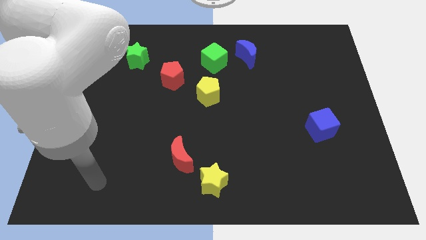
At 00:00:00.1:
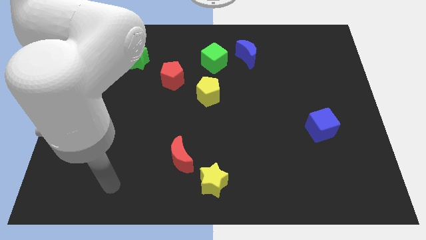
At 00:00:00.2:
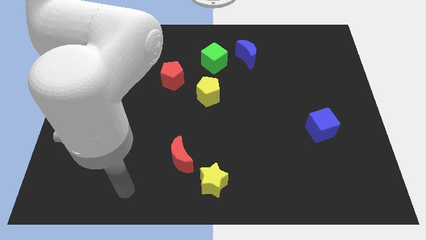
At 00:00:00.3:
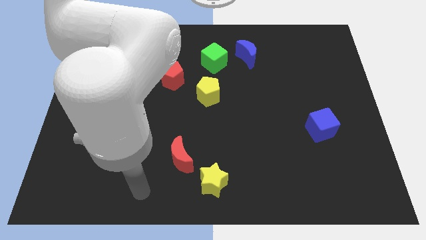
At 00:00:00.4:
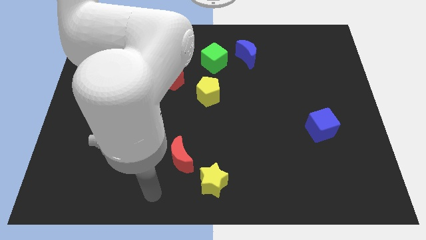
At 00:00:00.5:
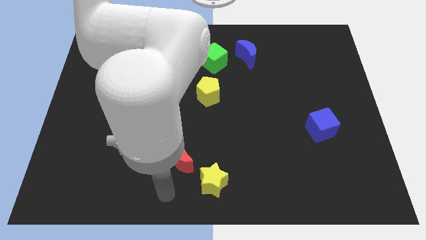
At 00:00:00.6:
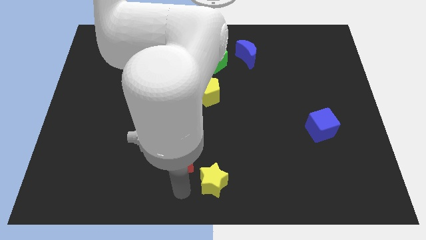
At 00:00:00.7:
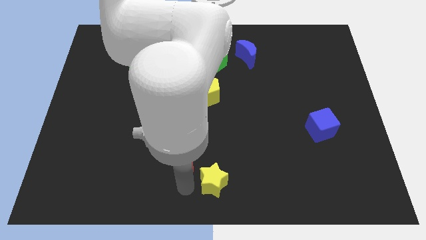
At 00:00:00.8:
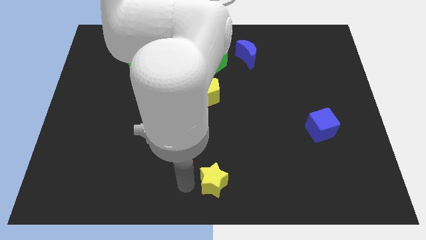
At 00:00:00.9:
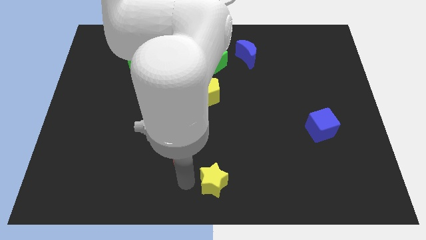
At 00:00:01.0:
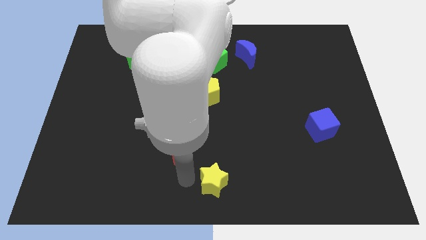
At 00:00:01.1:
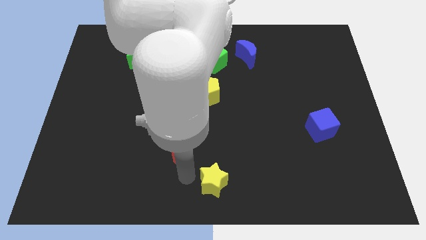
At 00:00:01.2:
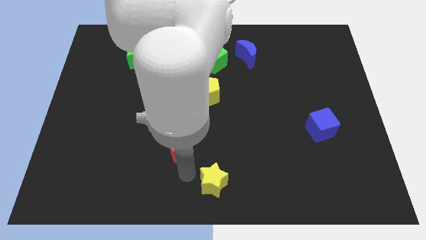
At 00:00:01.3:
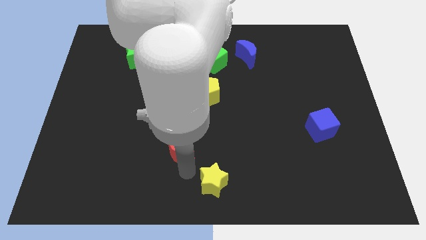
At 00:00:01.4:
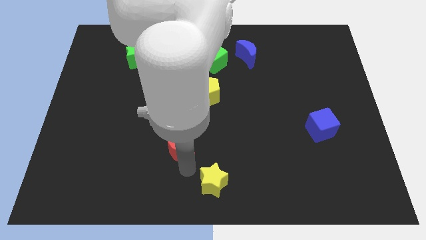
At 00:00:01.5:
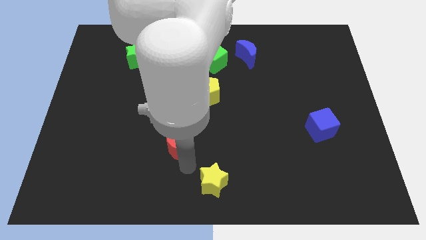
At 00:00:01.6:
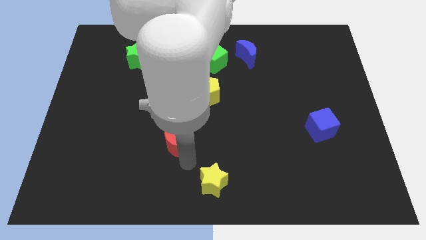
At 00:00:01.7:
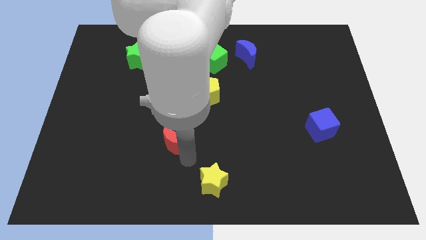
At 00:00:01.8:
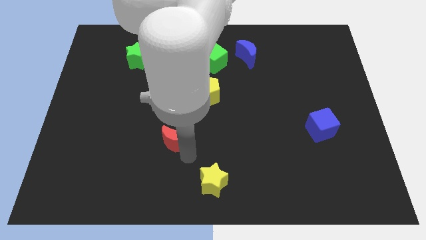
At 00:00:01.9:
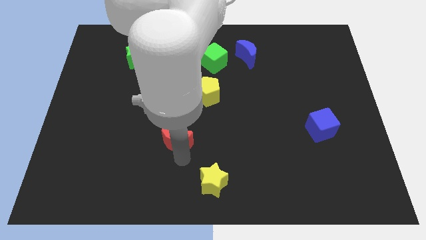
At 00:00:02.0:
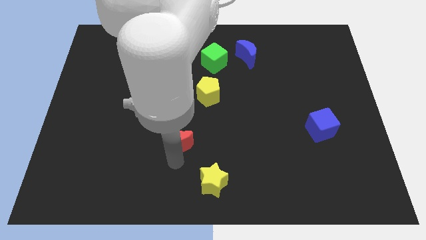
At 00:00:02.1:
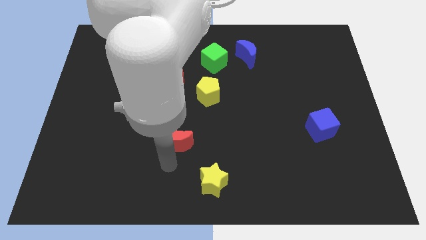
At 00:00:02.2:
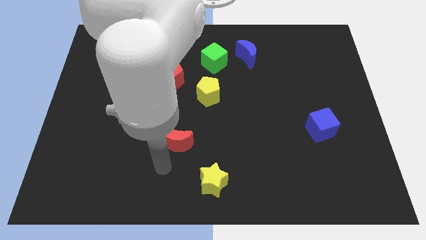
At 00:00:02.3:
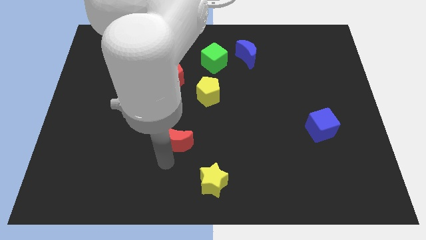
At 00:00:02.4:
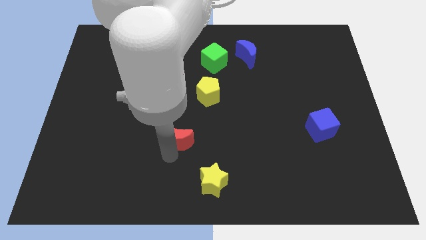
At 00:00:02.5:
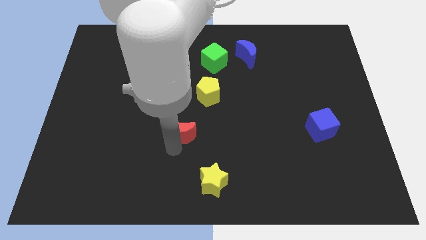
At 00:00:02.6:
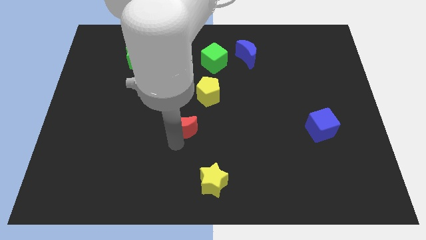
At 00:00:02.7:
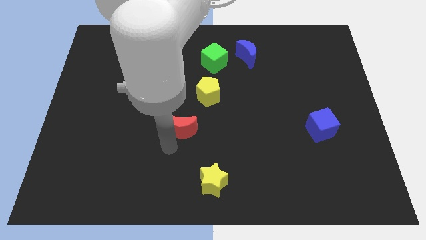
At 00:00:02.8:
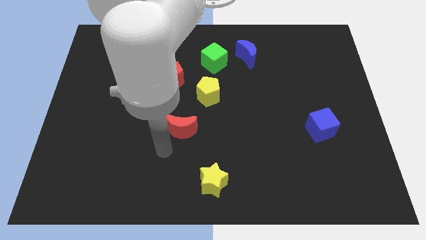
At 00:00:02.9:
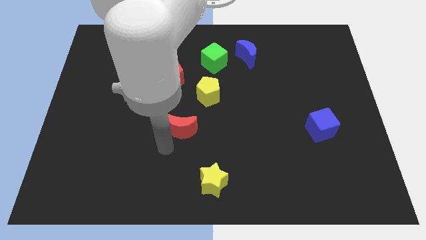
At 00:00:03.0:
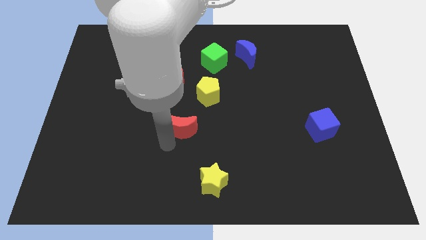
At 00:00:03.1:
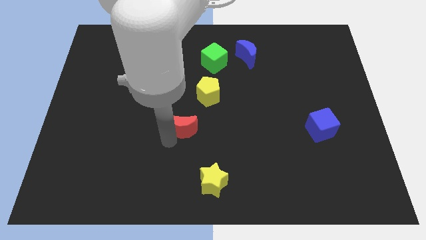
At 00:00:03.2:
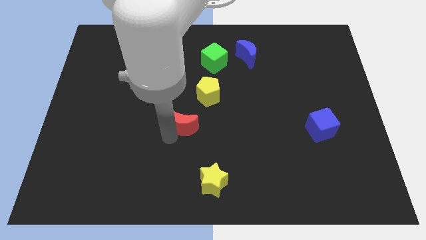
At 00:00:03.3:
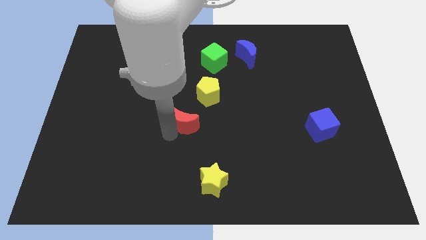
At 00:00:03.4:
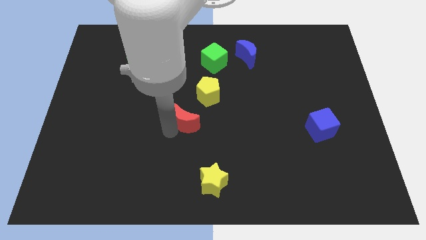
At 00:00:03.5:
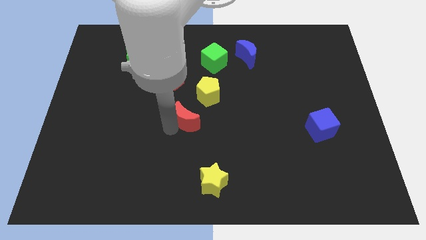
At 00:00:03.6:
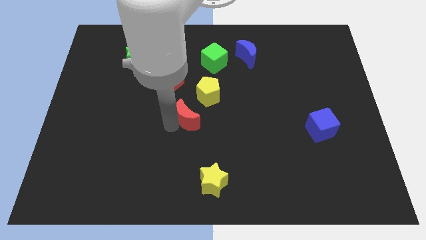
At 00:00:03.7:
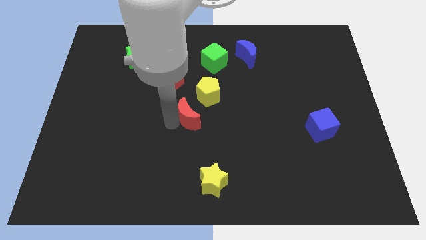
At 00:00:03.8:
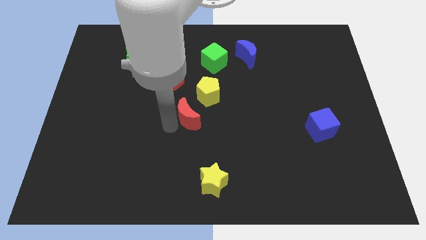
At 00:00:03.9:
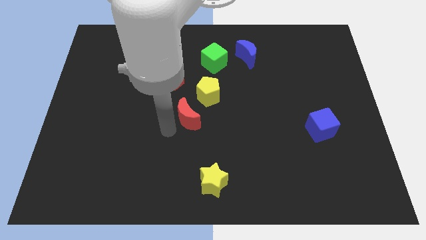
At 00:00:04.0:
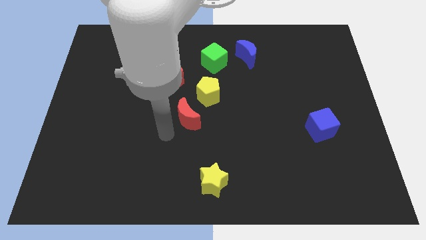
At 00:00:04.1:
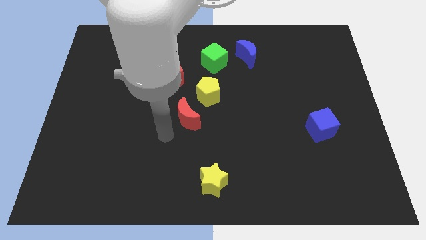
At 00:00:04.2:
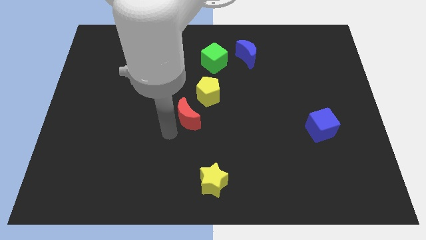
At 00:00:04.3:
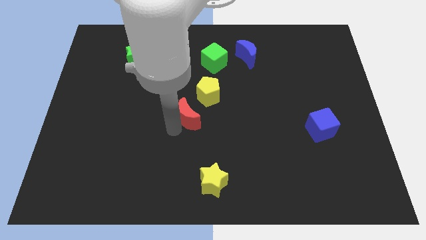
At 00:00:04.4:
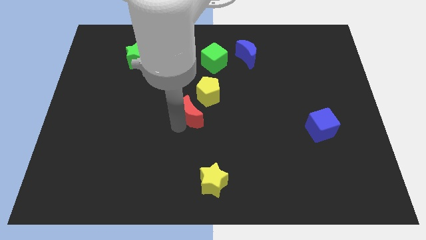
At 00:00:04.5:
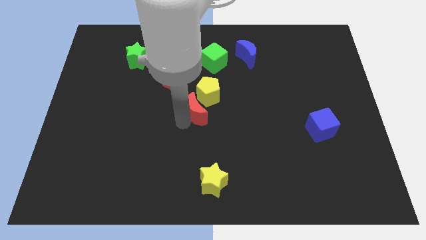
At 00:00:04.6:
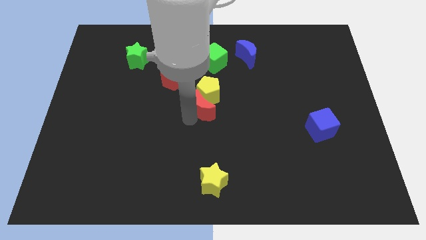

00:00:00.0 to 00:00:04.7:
push the red moon next to the yellow pentagon

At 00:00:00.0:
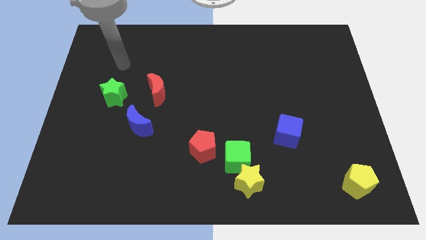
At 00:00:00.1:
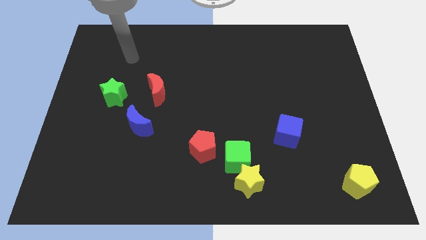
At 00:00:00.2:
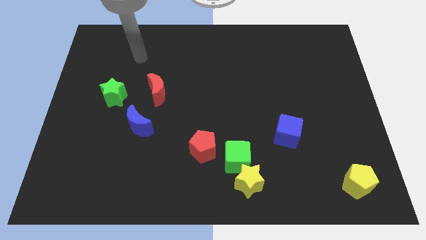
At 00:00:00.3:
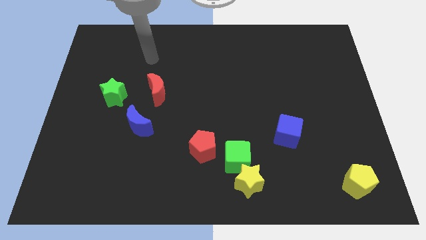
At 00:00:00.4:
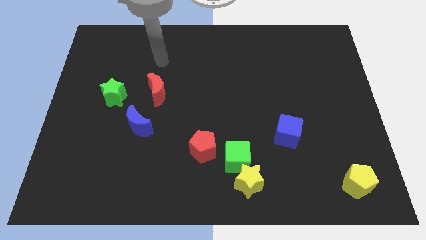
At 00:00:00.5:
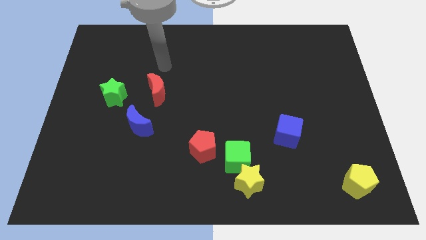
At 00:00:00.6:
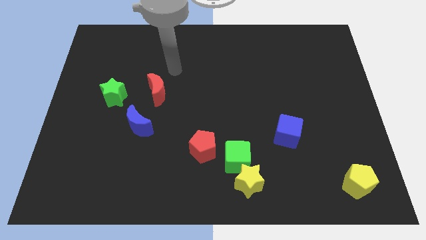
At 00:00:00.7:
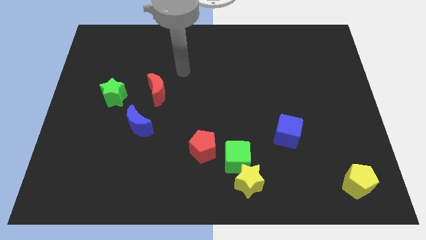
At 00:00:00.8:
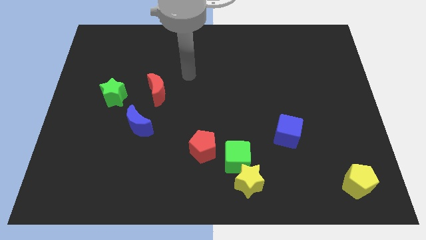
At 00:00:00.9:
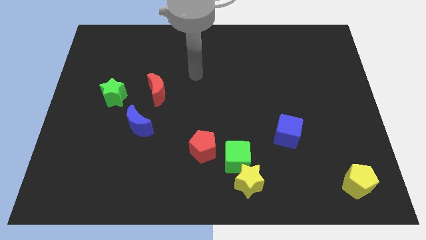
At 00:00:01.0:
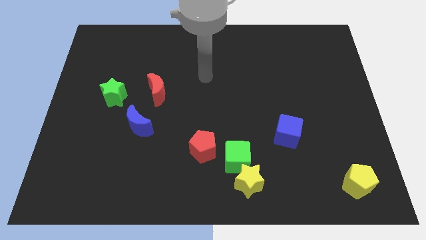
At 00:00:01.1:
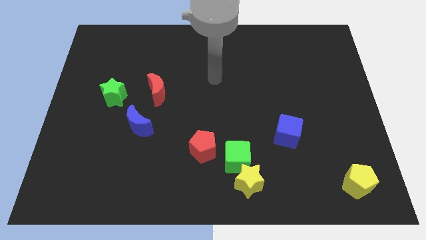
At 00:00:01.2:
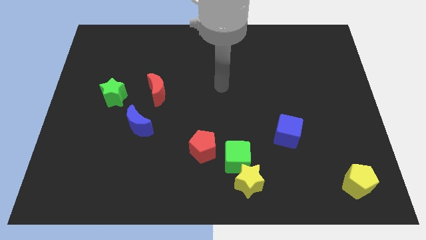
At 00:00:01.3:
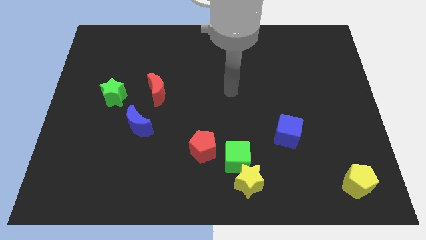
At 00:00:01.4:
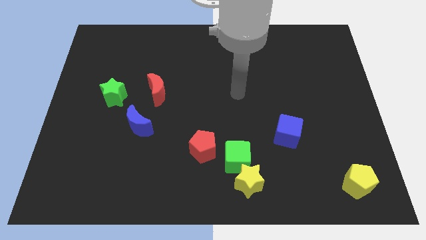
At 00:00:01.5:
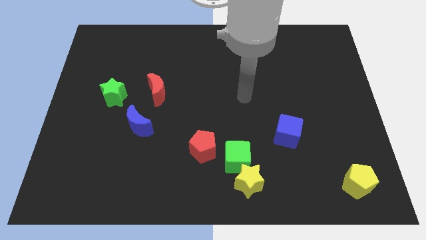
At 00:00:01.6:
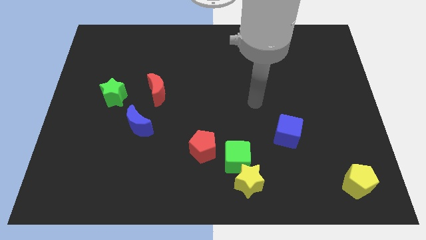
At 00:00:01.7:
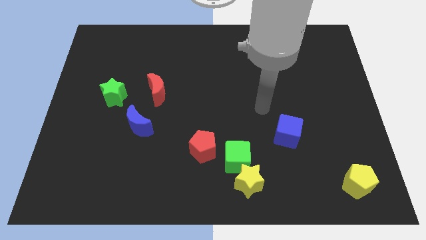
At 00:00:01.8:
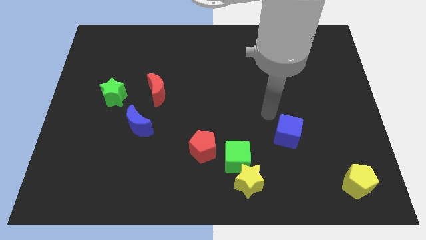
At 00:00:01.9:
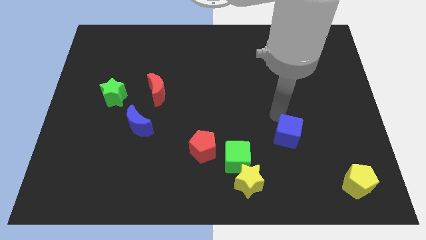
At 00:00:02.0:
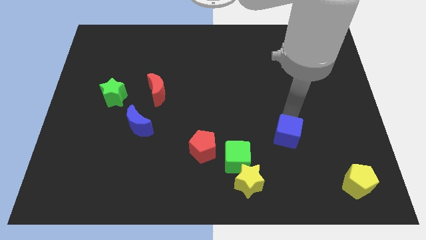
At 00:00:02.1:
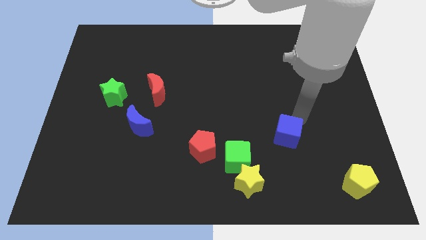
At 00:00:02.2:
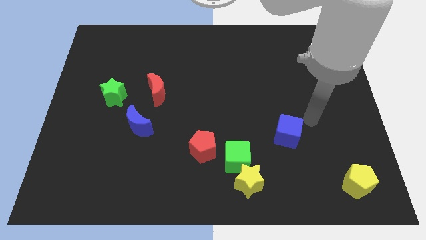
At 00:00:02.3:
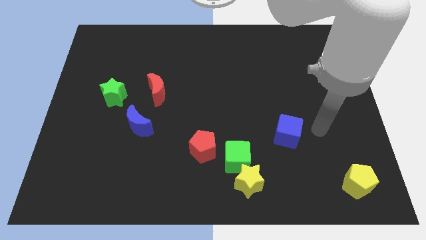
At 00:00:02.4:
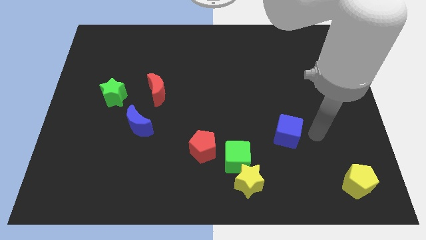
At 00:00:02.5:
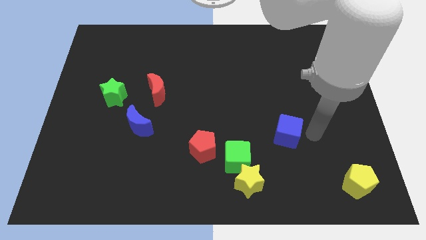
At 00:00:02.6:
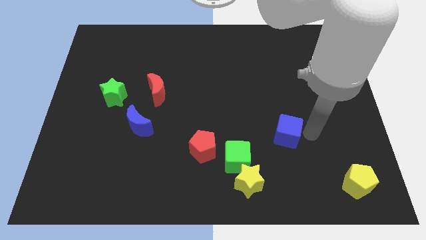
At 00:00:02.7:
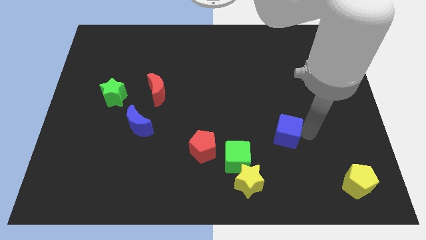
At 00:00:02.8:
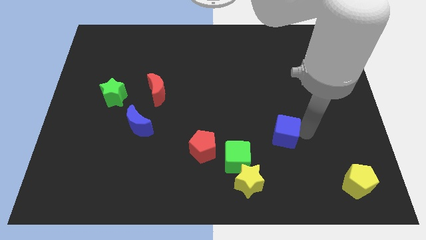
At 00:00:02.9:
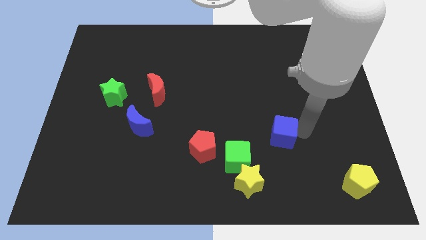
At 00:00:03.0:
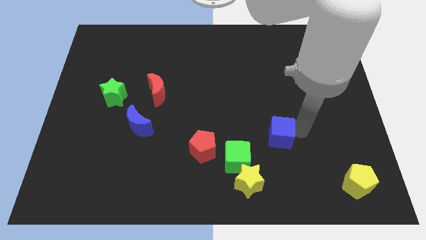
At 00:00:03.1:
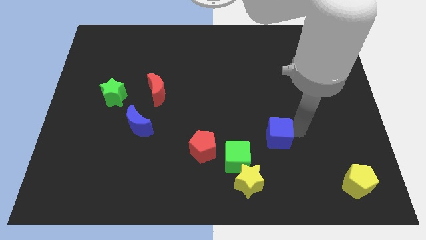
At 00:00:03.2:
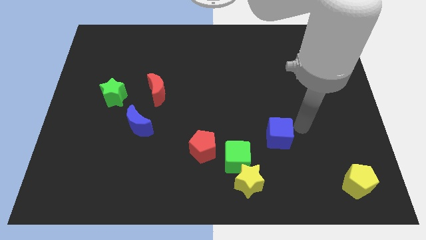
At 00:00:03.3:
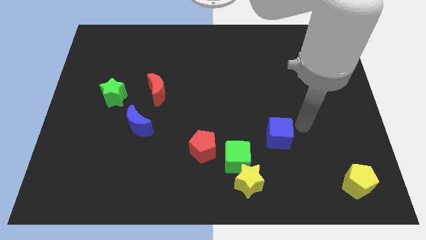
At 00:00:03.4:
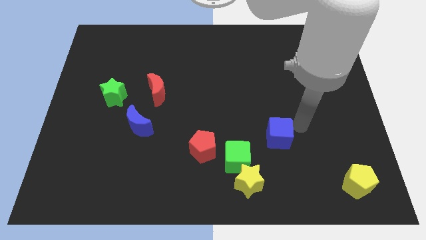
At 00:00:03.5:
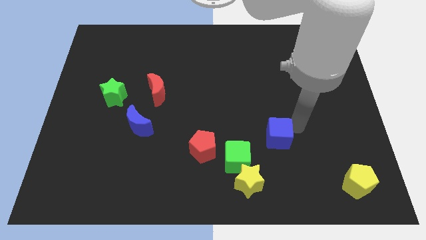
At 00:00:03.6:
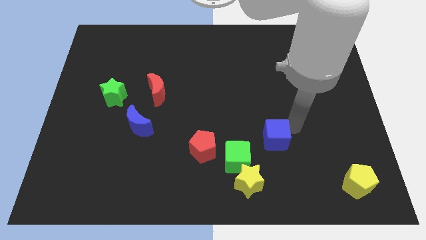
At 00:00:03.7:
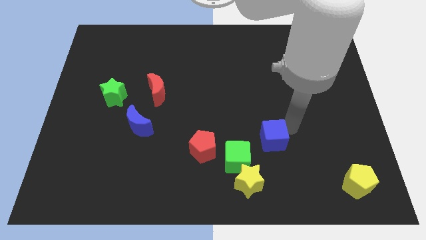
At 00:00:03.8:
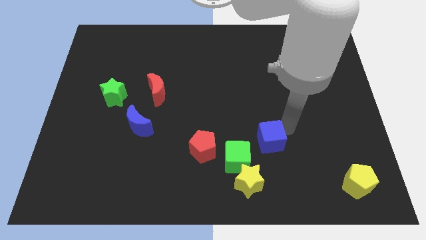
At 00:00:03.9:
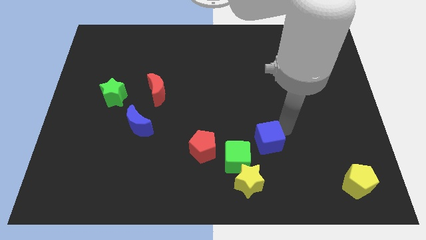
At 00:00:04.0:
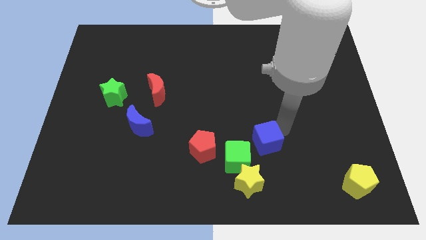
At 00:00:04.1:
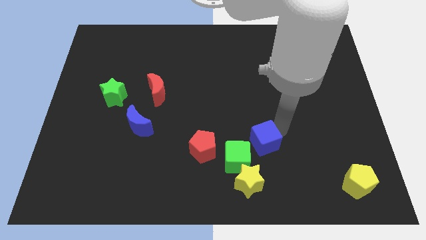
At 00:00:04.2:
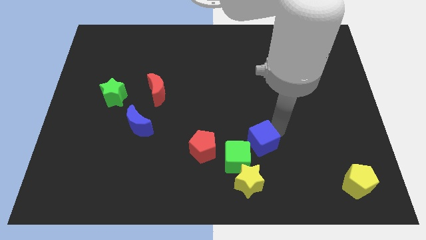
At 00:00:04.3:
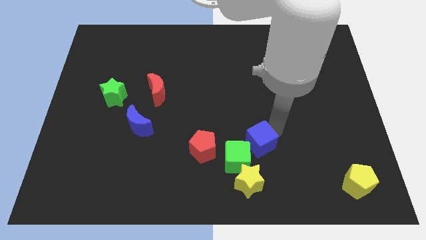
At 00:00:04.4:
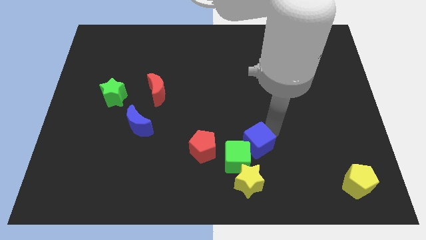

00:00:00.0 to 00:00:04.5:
move the blue cube towards the green cube
